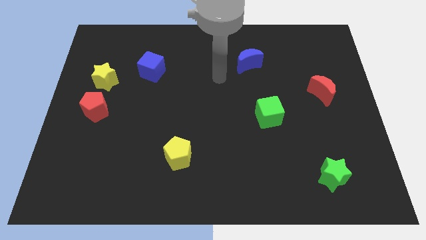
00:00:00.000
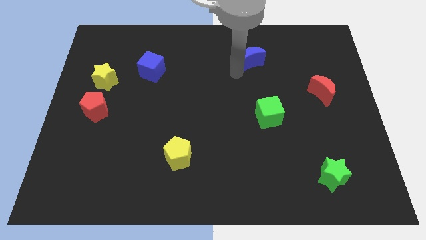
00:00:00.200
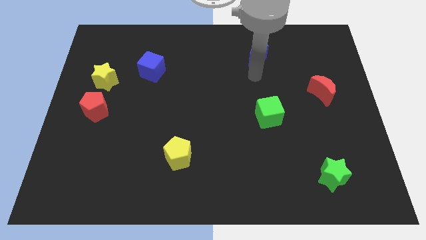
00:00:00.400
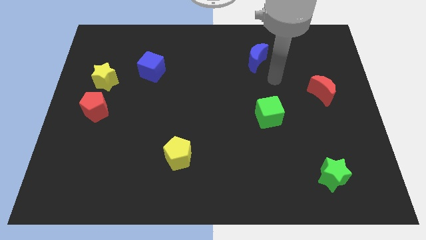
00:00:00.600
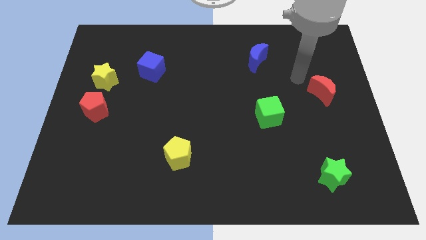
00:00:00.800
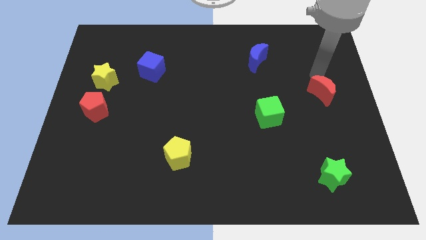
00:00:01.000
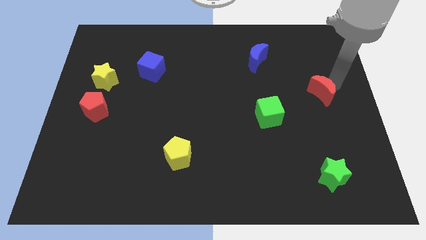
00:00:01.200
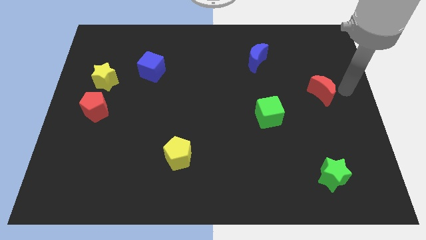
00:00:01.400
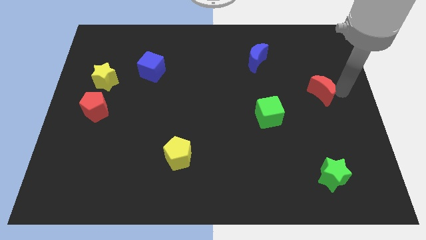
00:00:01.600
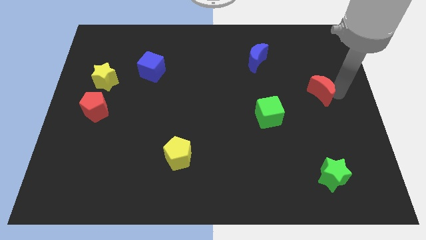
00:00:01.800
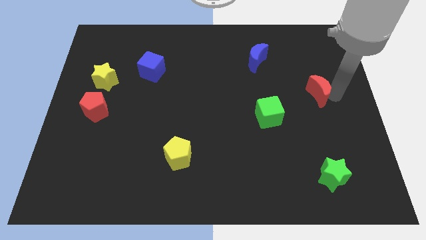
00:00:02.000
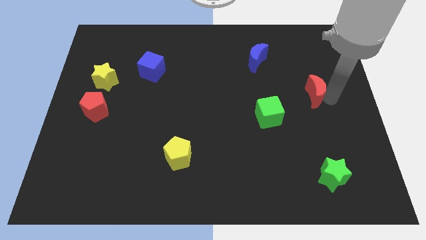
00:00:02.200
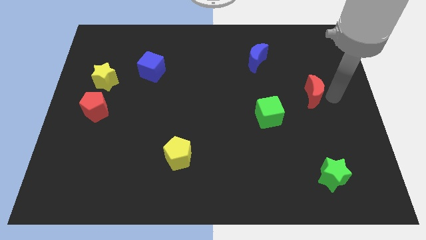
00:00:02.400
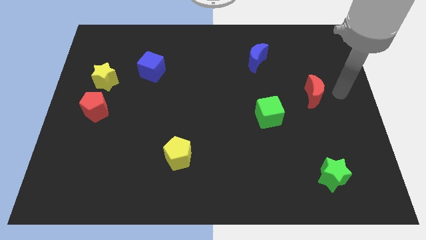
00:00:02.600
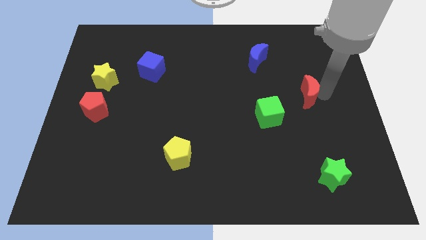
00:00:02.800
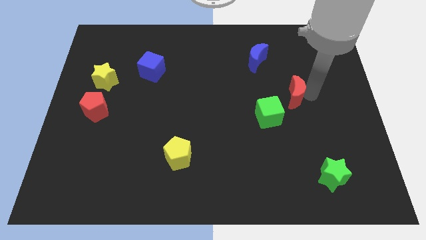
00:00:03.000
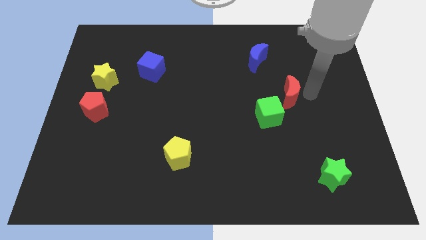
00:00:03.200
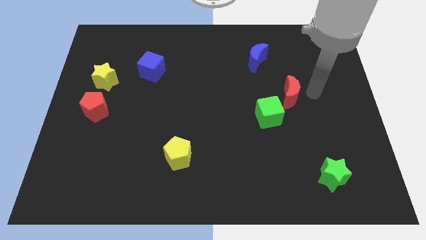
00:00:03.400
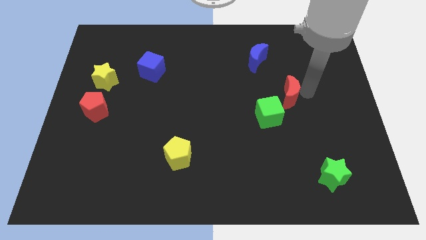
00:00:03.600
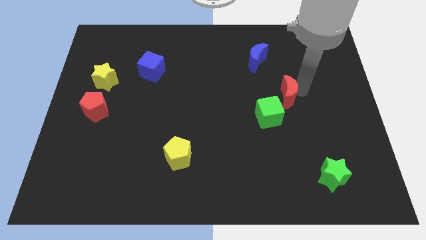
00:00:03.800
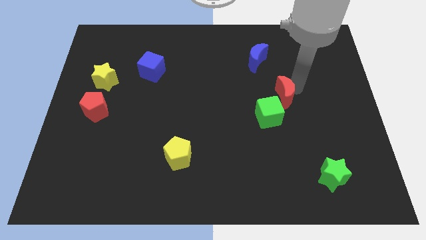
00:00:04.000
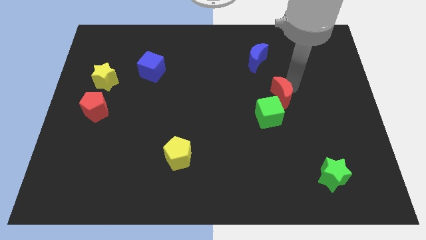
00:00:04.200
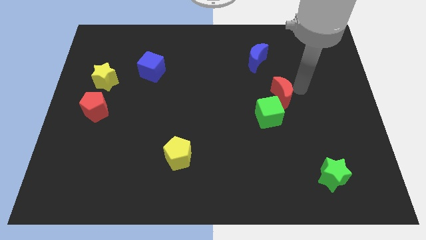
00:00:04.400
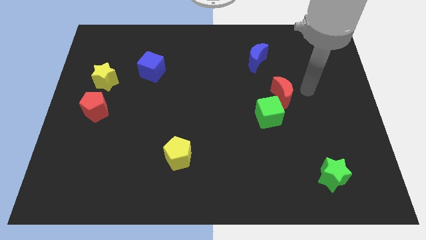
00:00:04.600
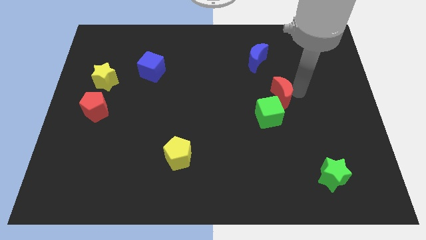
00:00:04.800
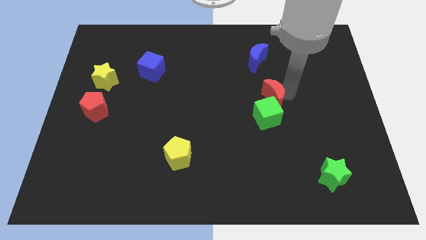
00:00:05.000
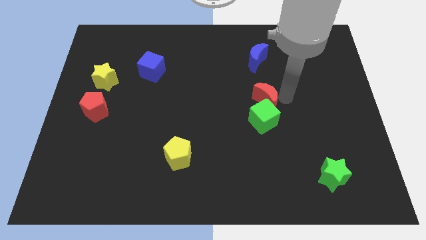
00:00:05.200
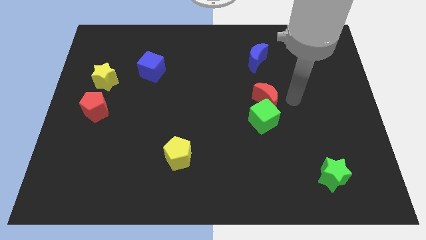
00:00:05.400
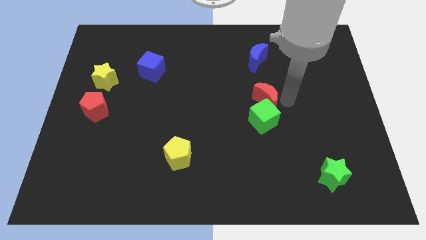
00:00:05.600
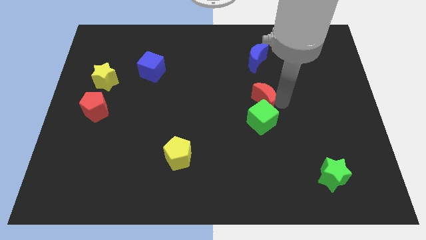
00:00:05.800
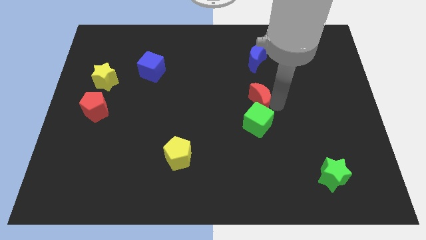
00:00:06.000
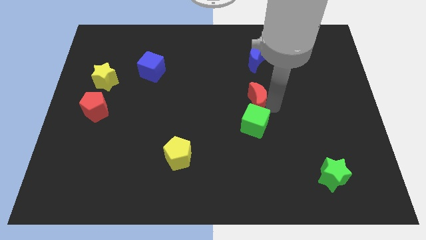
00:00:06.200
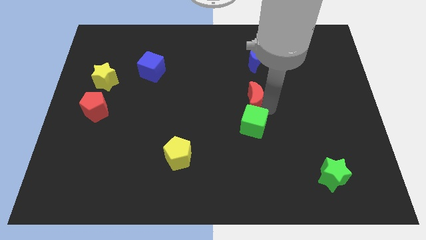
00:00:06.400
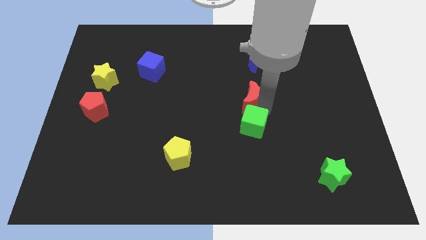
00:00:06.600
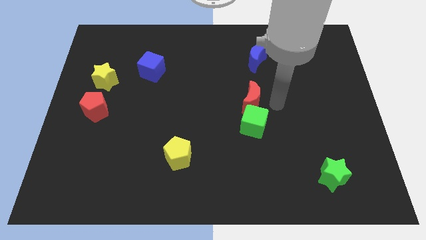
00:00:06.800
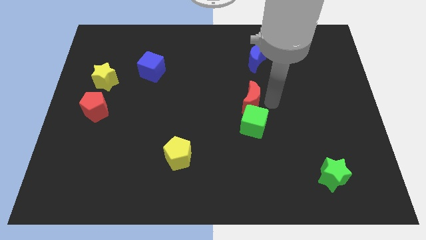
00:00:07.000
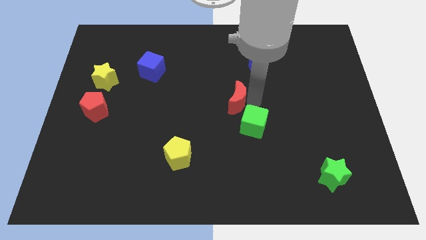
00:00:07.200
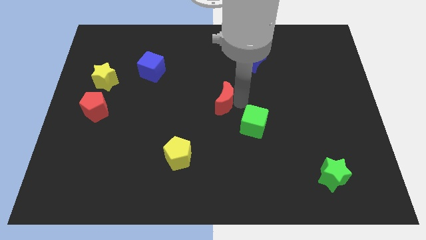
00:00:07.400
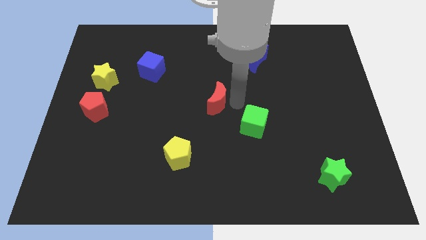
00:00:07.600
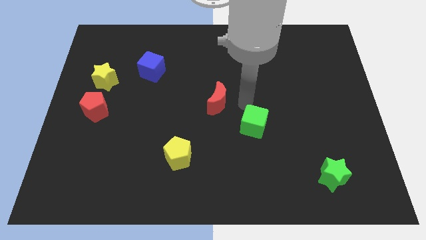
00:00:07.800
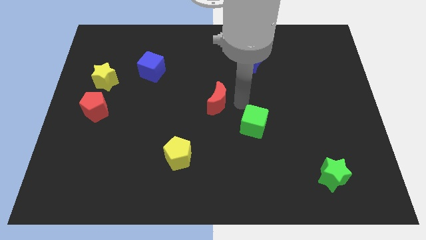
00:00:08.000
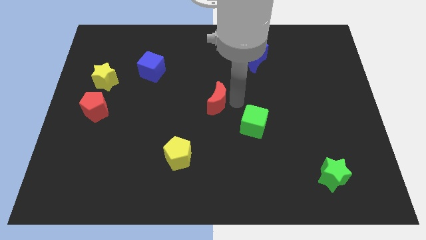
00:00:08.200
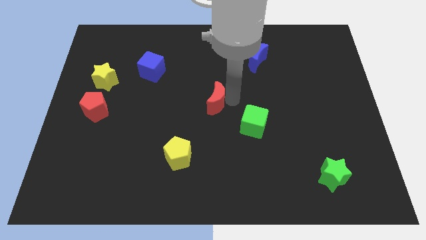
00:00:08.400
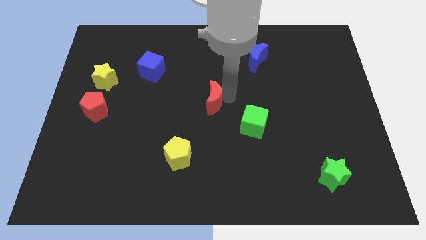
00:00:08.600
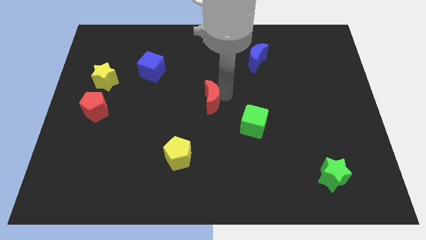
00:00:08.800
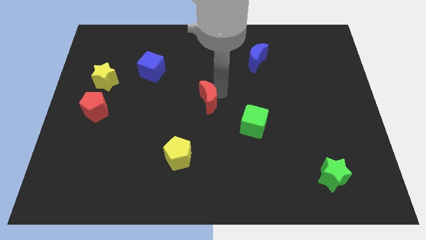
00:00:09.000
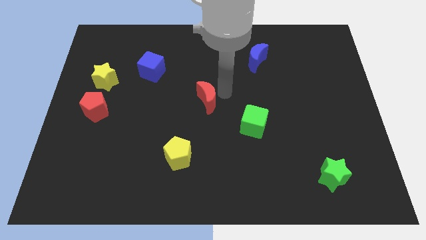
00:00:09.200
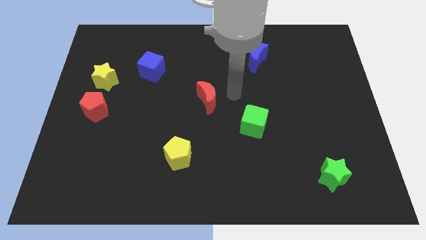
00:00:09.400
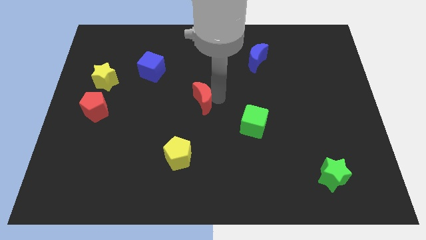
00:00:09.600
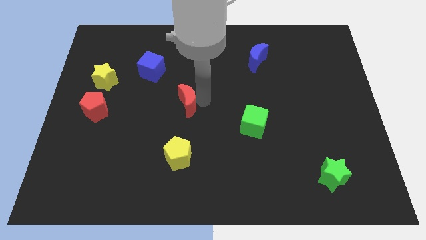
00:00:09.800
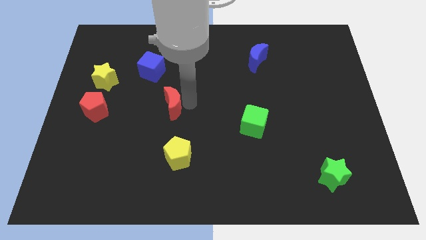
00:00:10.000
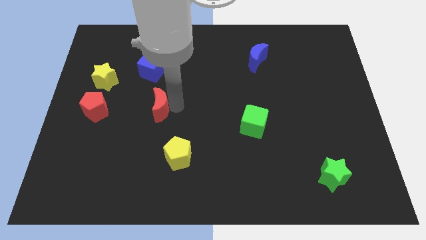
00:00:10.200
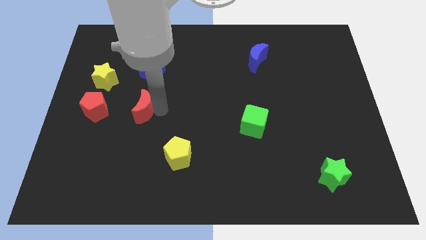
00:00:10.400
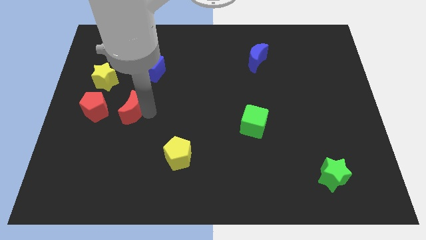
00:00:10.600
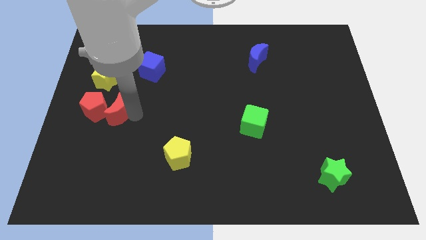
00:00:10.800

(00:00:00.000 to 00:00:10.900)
move the red moon to the red pentagon

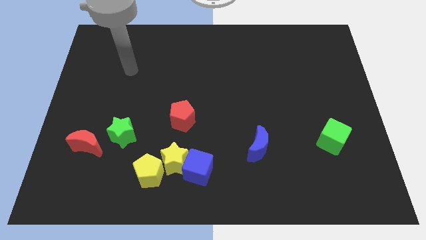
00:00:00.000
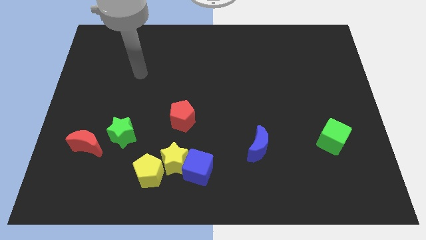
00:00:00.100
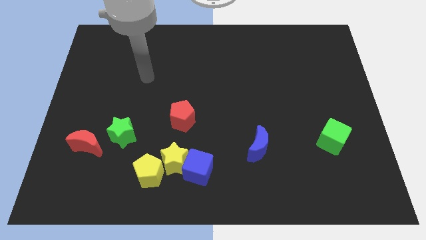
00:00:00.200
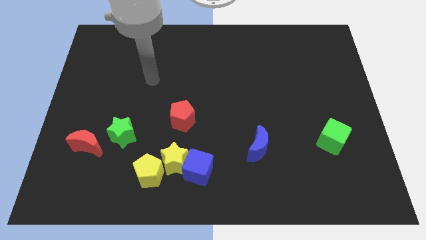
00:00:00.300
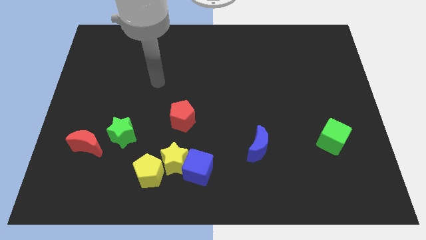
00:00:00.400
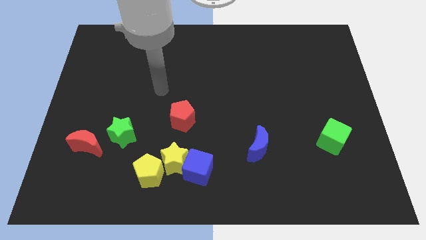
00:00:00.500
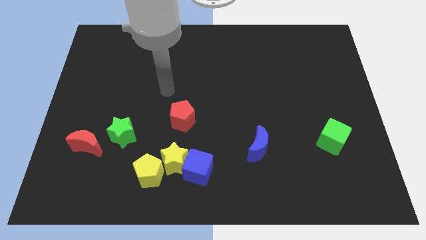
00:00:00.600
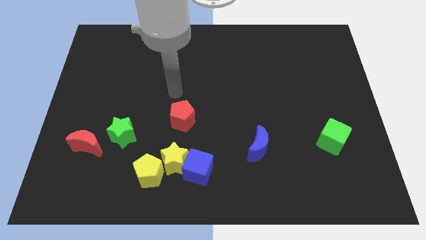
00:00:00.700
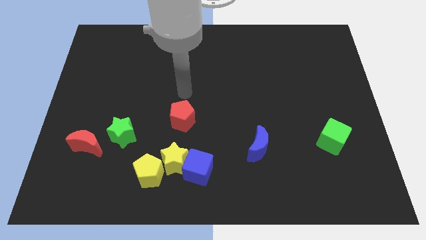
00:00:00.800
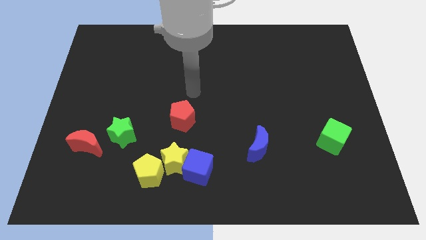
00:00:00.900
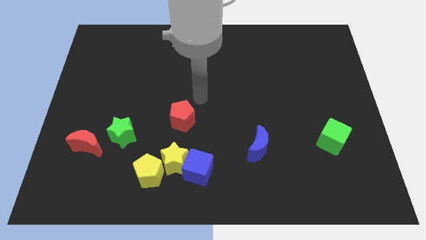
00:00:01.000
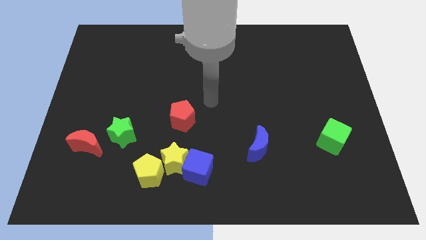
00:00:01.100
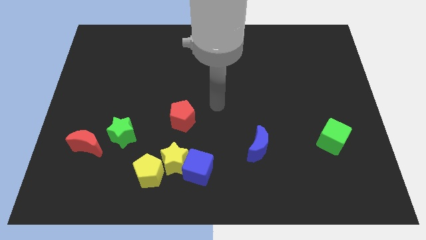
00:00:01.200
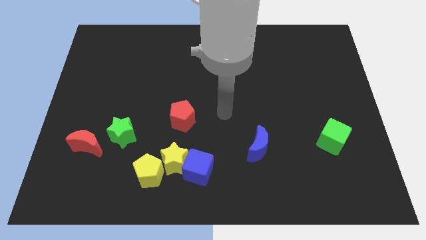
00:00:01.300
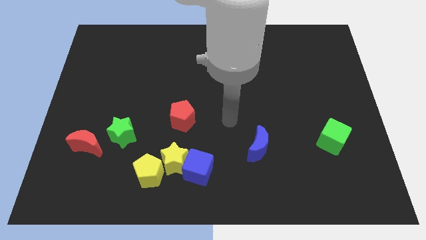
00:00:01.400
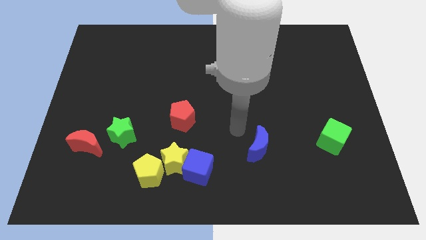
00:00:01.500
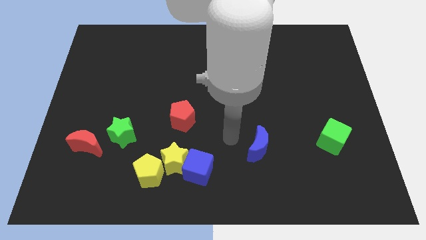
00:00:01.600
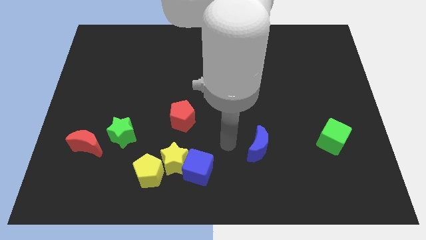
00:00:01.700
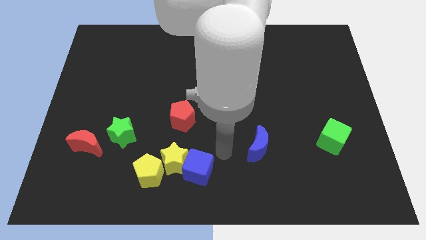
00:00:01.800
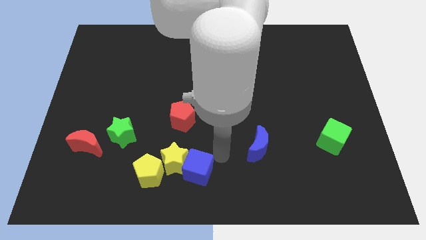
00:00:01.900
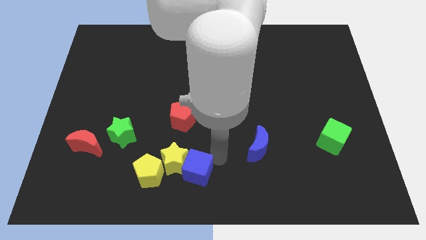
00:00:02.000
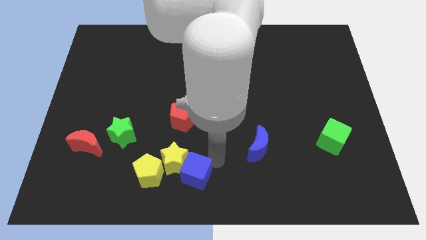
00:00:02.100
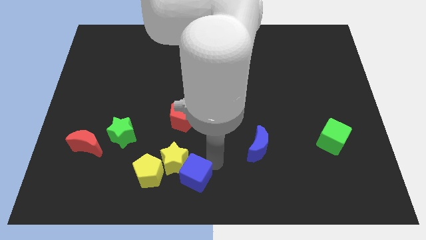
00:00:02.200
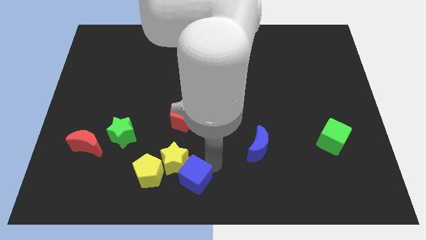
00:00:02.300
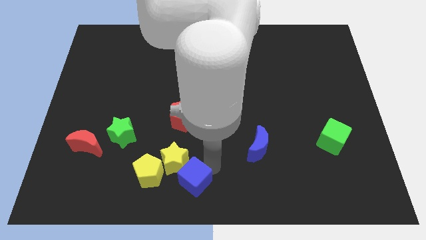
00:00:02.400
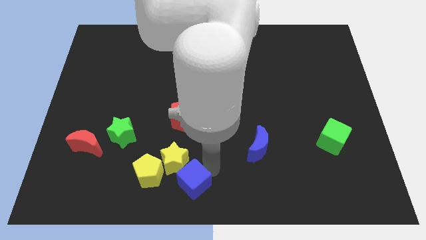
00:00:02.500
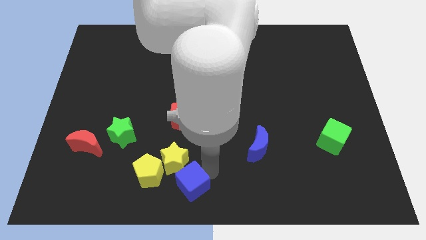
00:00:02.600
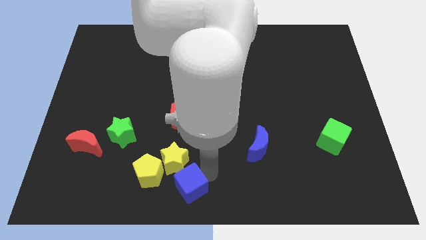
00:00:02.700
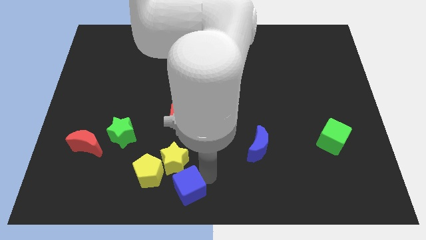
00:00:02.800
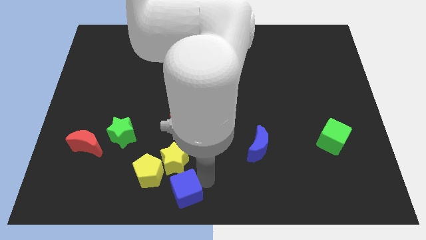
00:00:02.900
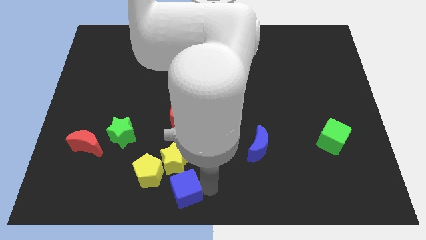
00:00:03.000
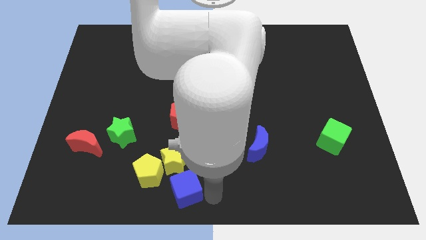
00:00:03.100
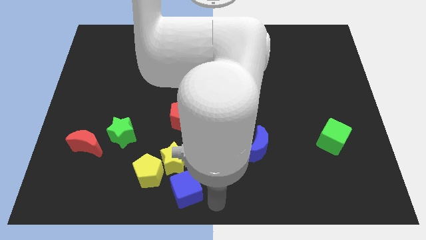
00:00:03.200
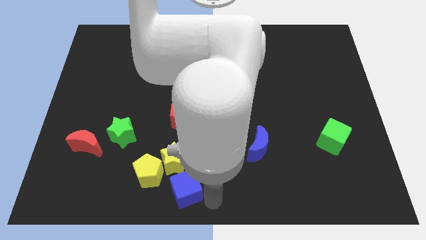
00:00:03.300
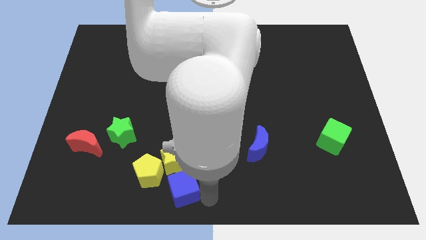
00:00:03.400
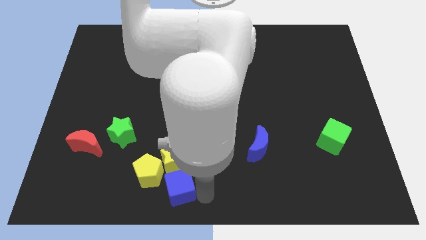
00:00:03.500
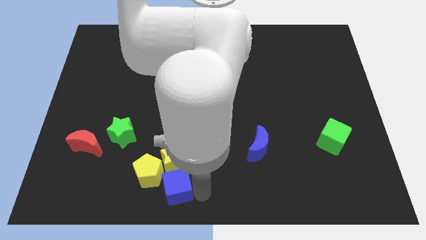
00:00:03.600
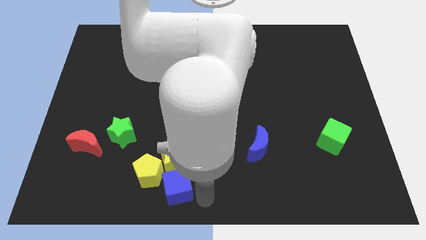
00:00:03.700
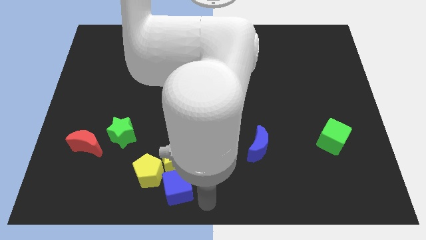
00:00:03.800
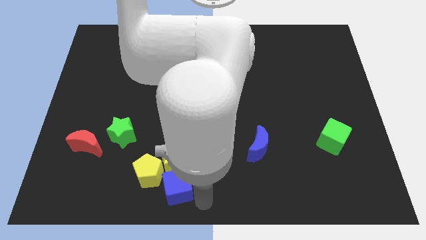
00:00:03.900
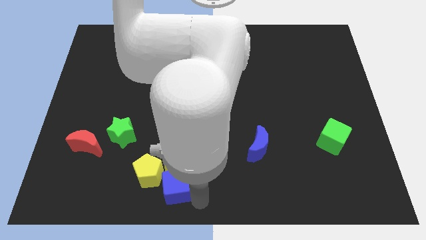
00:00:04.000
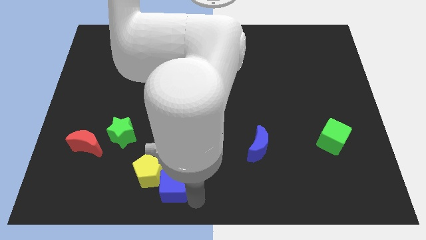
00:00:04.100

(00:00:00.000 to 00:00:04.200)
push the blue cube to the yellow pentagon
